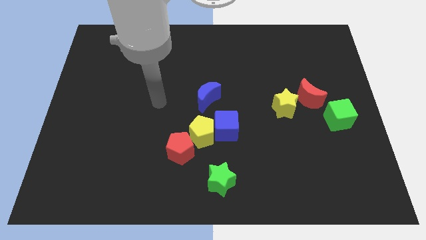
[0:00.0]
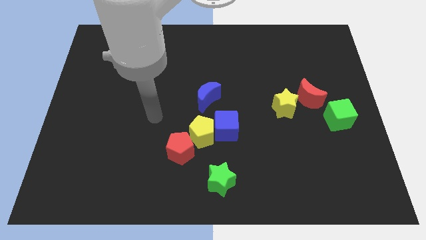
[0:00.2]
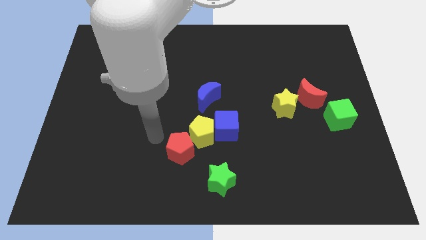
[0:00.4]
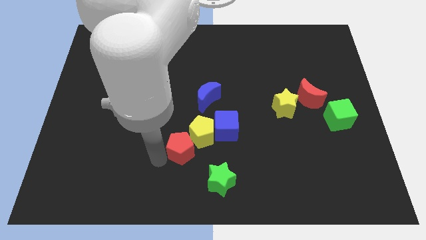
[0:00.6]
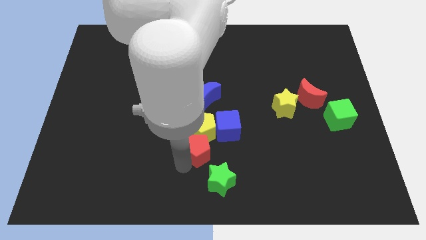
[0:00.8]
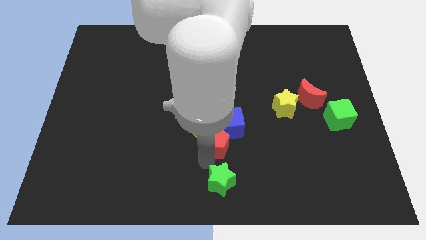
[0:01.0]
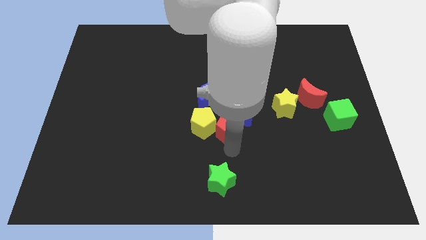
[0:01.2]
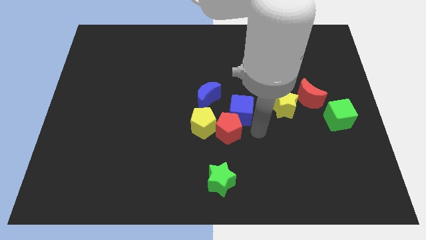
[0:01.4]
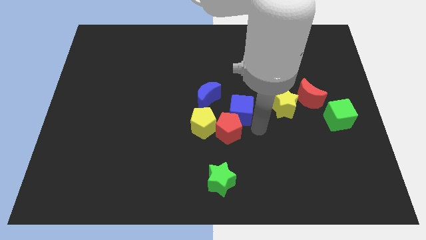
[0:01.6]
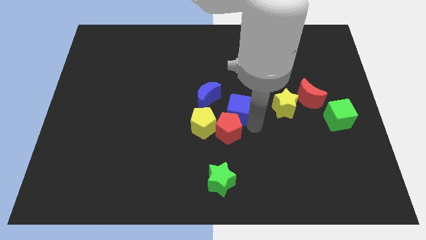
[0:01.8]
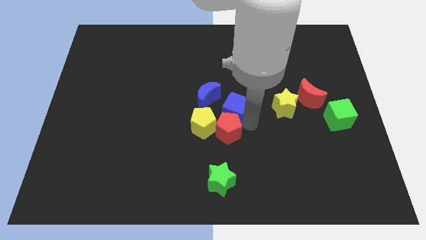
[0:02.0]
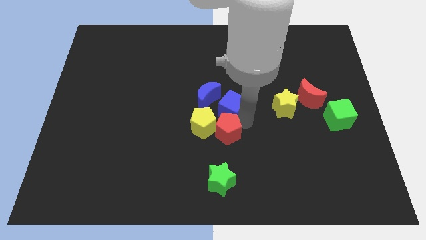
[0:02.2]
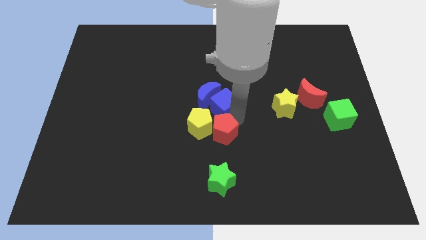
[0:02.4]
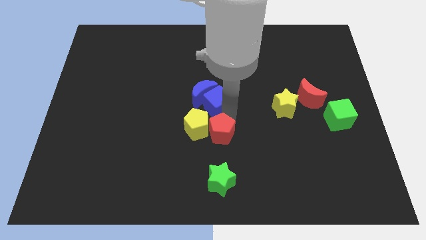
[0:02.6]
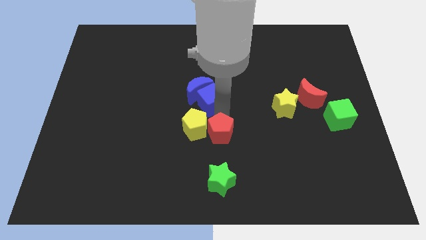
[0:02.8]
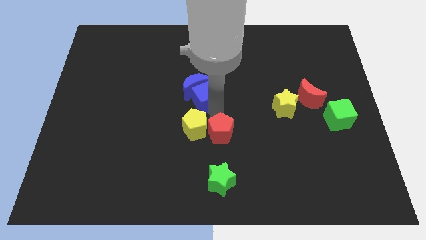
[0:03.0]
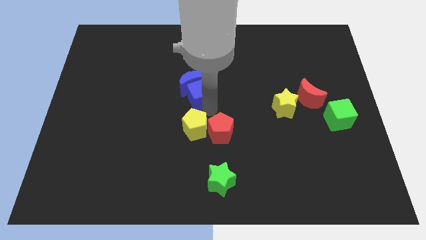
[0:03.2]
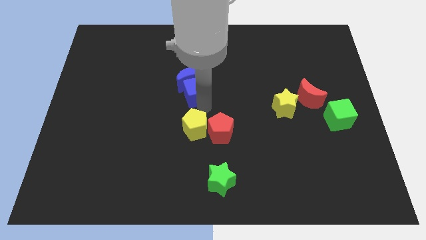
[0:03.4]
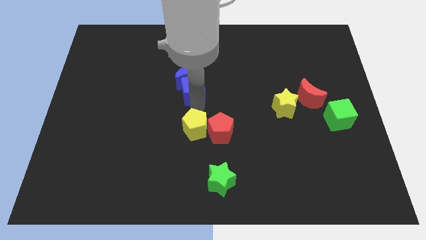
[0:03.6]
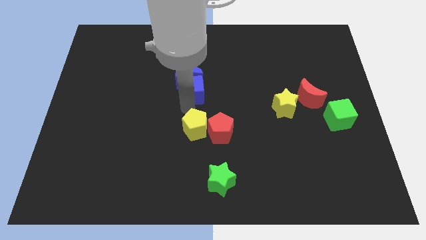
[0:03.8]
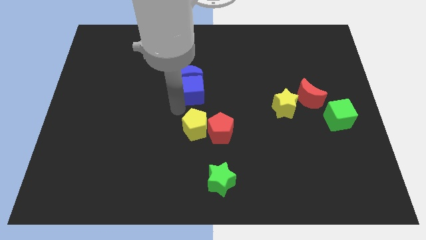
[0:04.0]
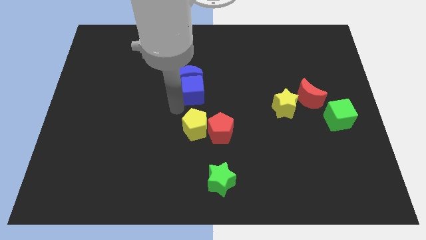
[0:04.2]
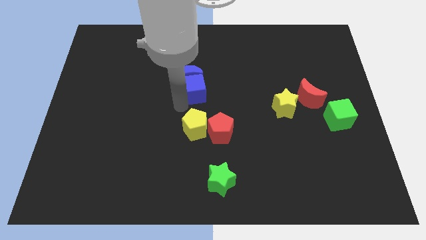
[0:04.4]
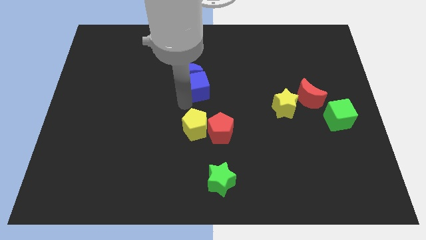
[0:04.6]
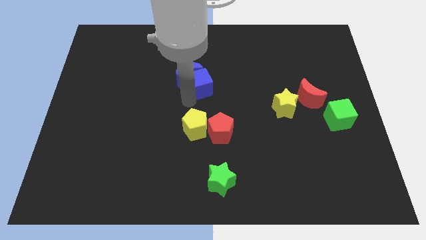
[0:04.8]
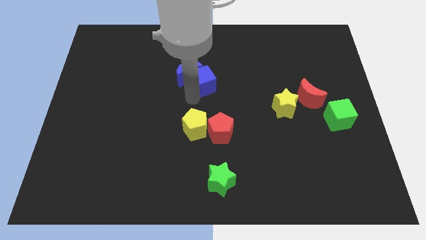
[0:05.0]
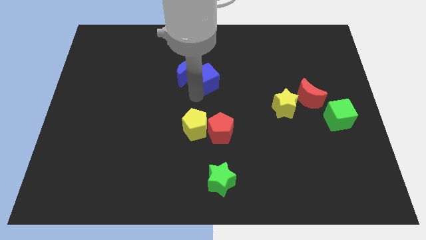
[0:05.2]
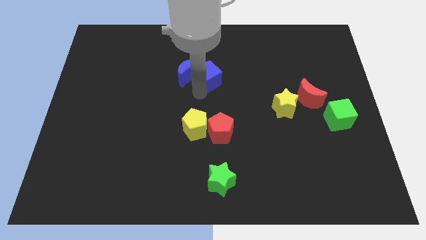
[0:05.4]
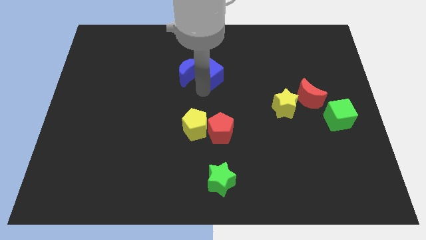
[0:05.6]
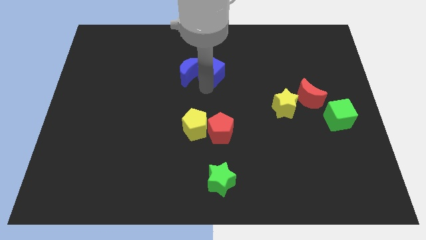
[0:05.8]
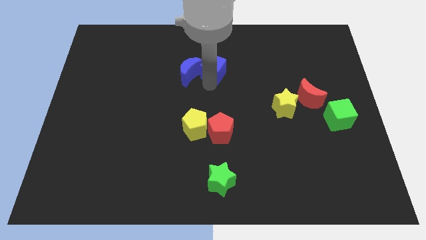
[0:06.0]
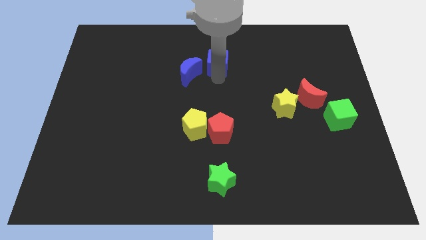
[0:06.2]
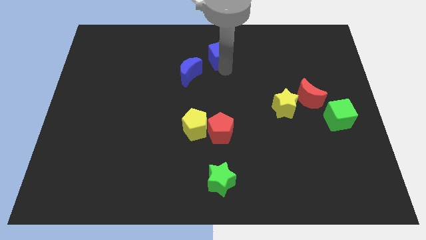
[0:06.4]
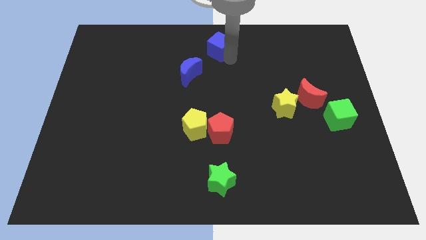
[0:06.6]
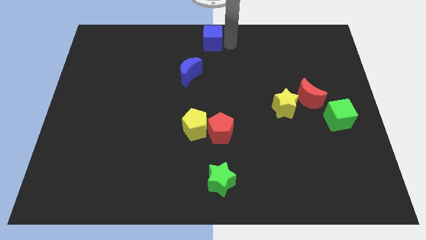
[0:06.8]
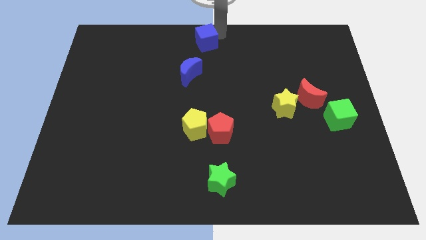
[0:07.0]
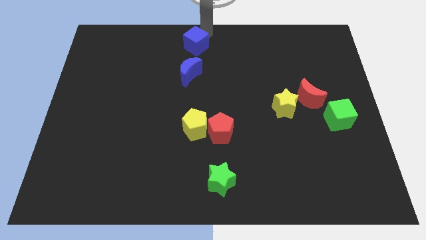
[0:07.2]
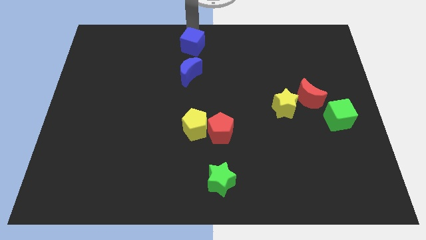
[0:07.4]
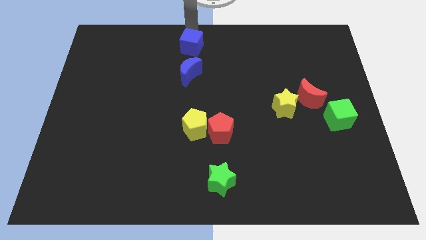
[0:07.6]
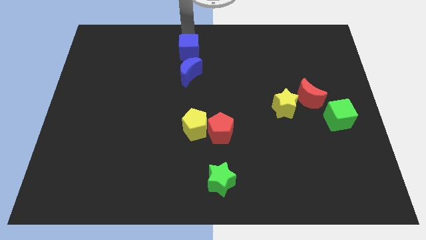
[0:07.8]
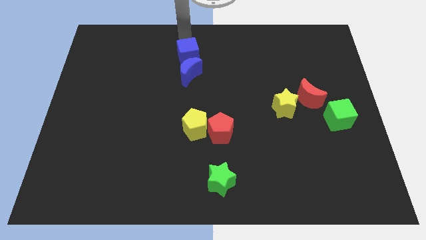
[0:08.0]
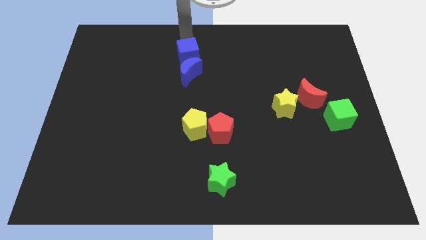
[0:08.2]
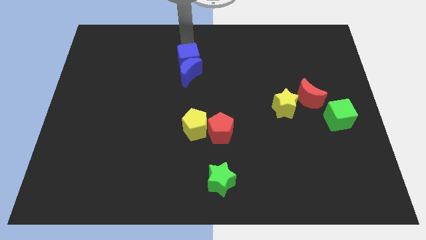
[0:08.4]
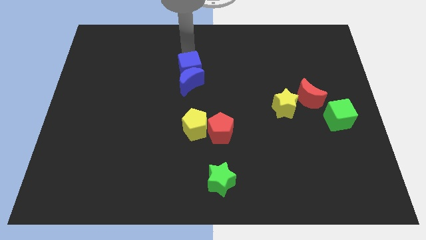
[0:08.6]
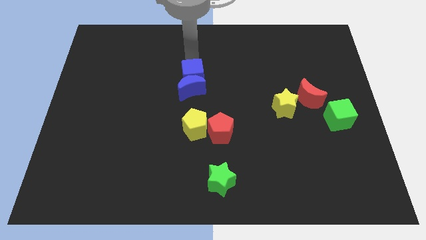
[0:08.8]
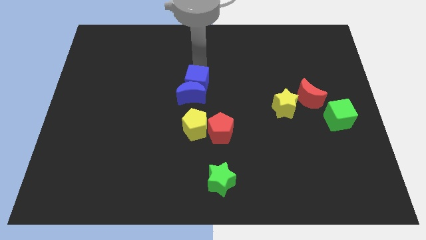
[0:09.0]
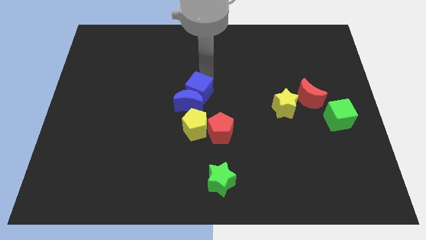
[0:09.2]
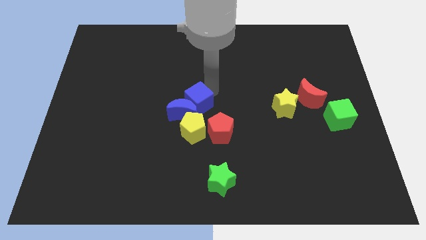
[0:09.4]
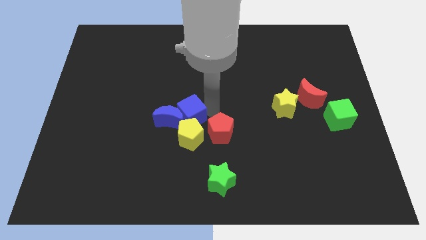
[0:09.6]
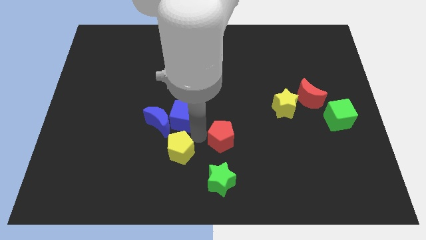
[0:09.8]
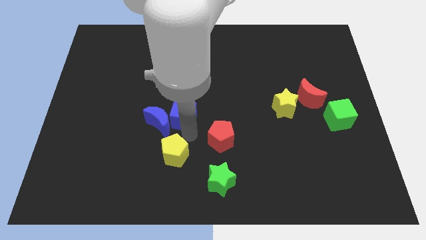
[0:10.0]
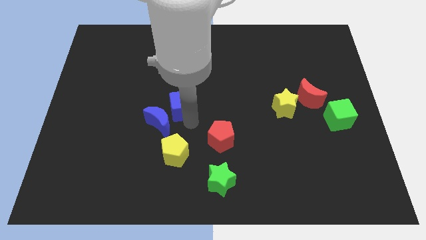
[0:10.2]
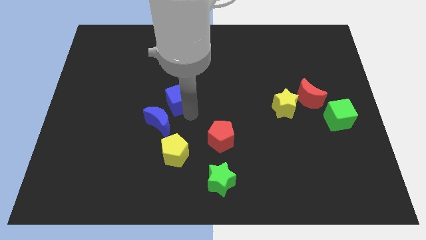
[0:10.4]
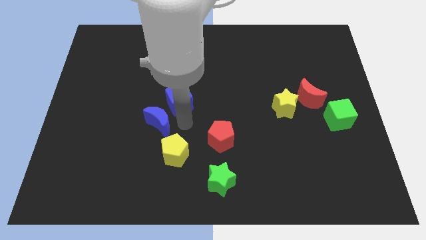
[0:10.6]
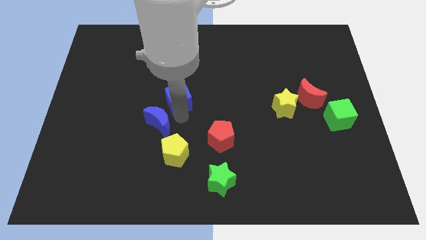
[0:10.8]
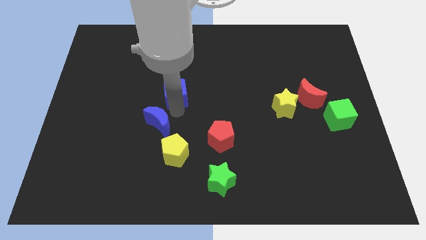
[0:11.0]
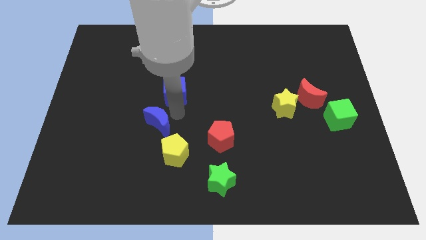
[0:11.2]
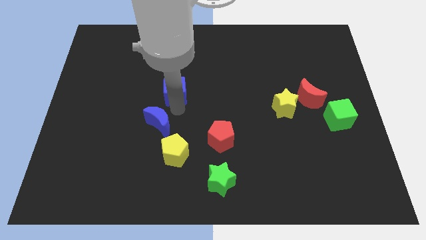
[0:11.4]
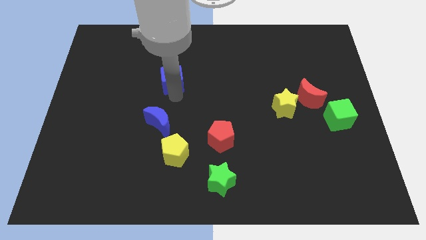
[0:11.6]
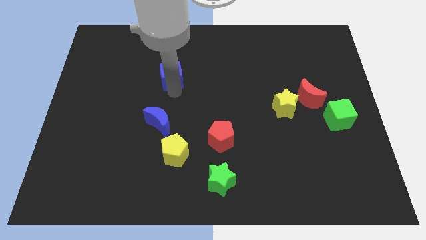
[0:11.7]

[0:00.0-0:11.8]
move the blue cube diagonally up and left

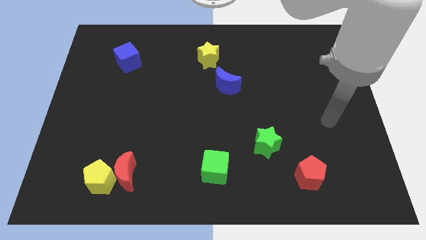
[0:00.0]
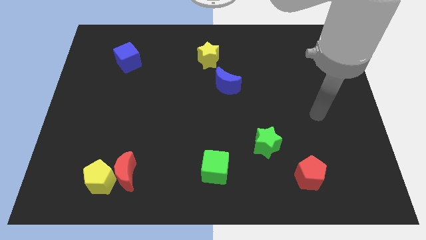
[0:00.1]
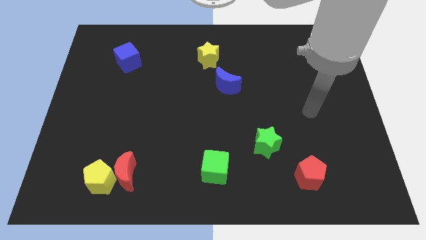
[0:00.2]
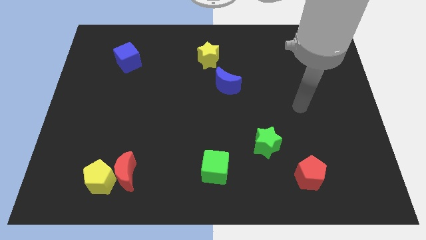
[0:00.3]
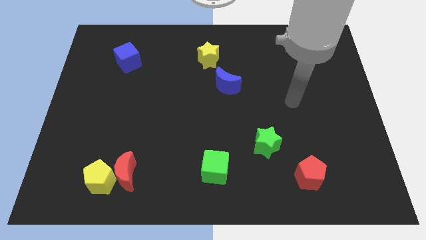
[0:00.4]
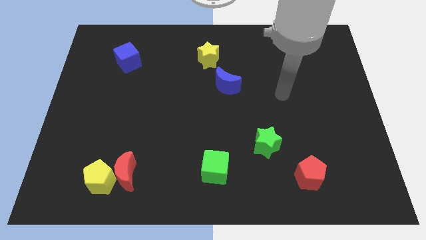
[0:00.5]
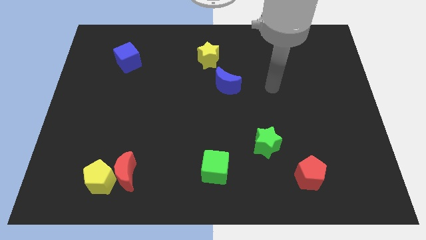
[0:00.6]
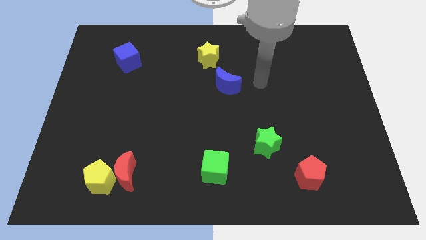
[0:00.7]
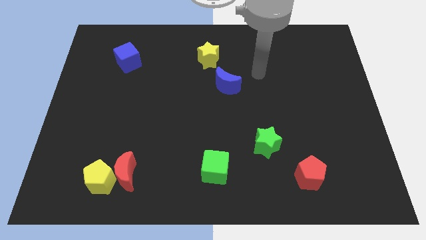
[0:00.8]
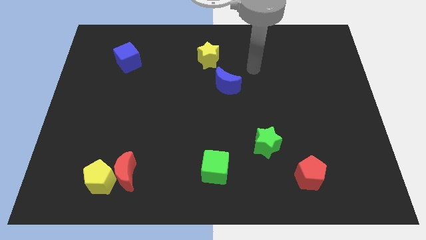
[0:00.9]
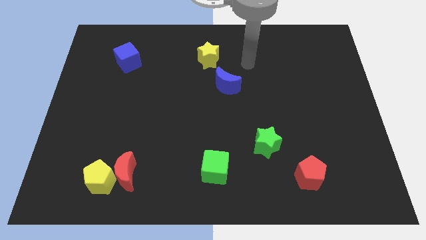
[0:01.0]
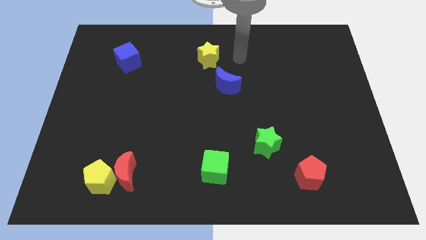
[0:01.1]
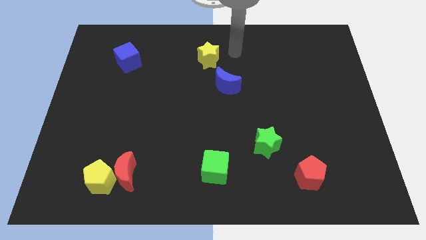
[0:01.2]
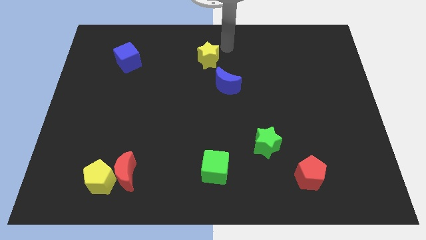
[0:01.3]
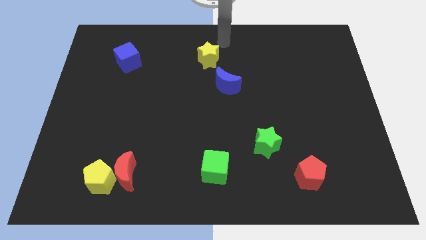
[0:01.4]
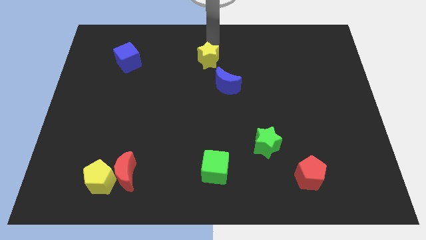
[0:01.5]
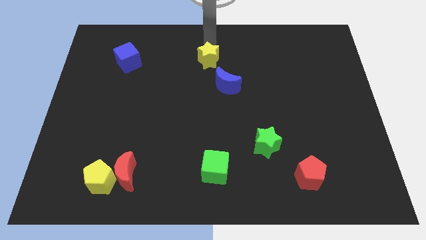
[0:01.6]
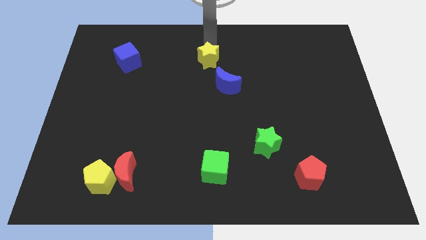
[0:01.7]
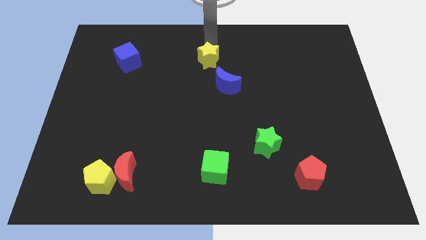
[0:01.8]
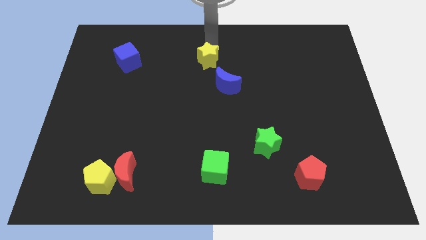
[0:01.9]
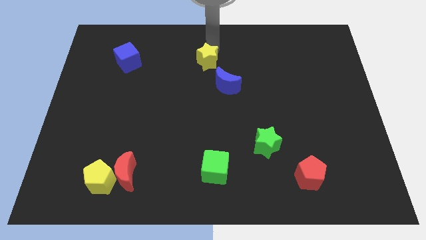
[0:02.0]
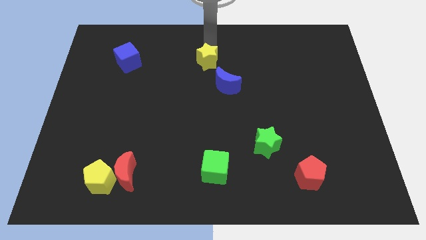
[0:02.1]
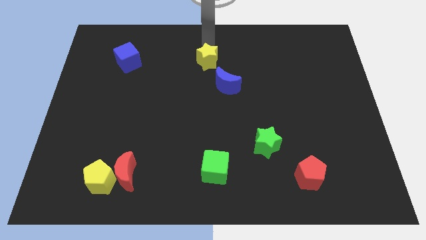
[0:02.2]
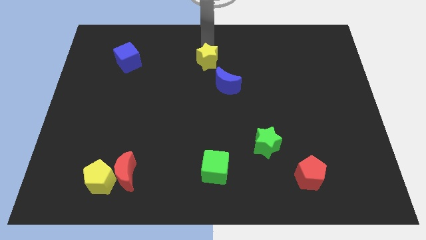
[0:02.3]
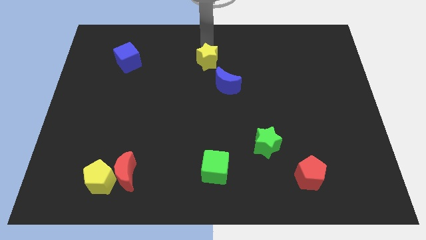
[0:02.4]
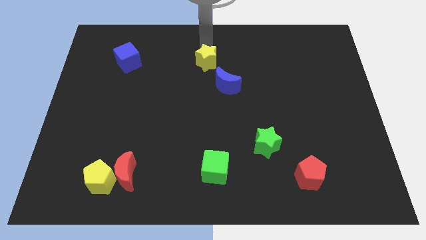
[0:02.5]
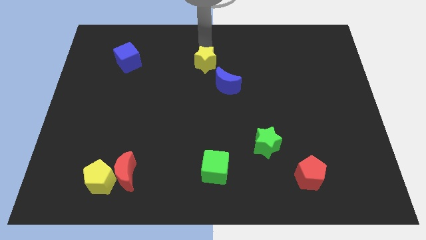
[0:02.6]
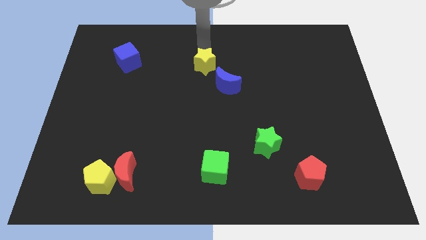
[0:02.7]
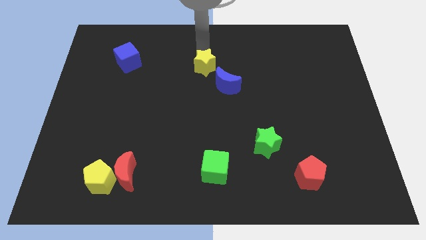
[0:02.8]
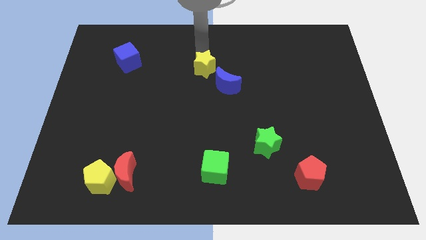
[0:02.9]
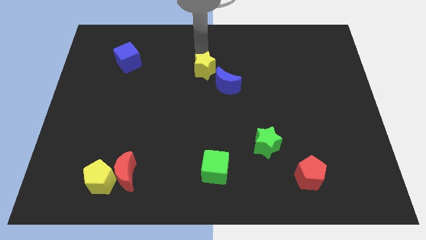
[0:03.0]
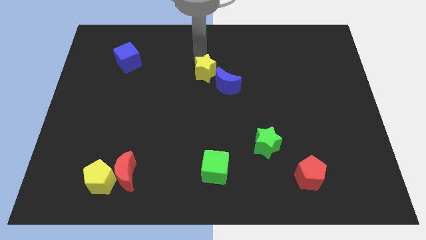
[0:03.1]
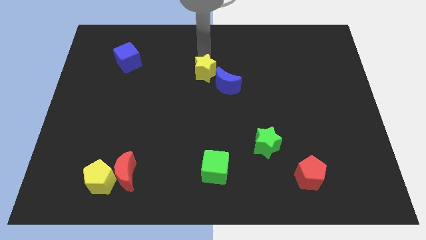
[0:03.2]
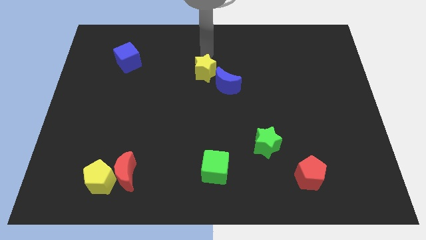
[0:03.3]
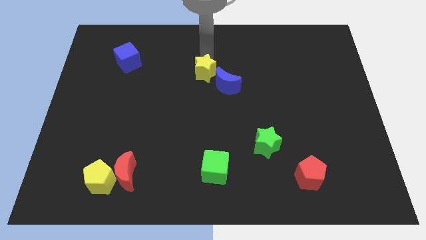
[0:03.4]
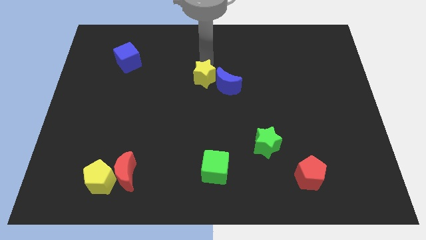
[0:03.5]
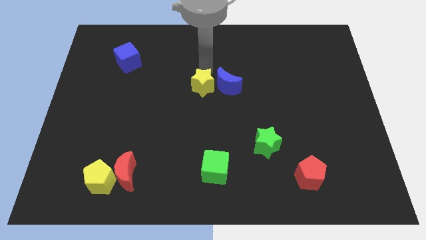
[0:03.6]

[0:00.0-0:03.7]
slightly push the yellow star down
